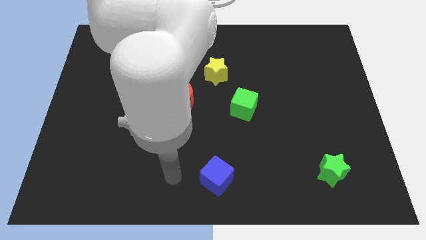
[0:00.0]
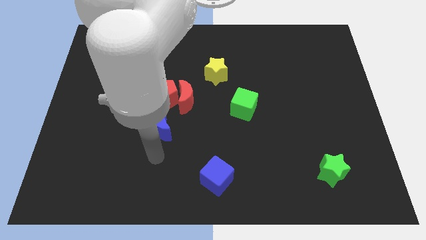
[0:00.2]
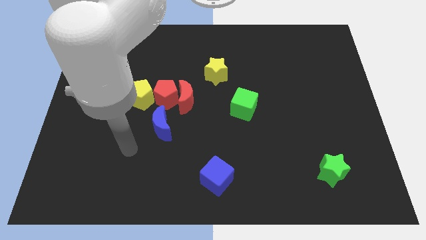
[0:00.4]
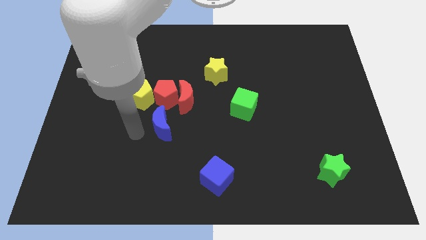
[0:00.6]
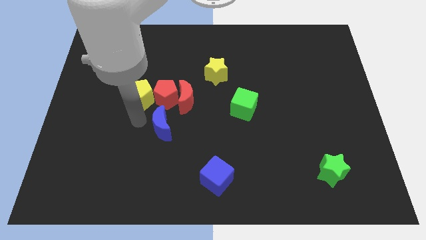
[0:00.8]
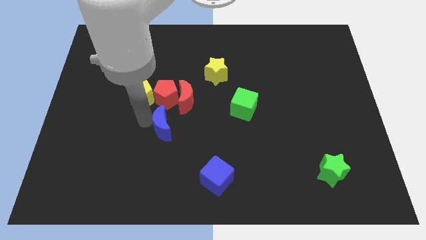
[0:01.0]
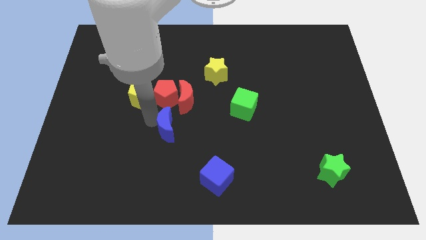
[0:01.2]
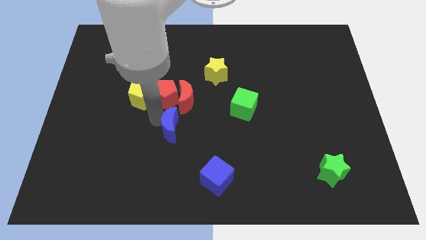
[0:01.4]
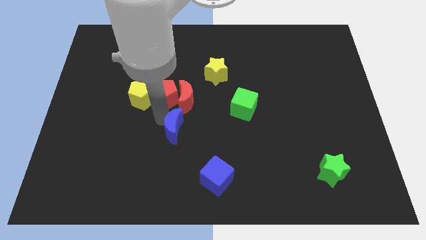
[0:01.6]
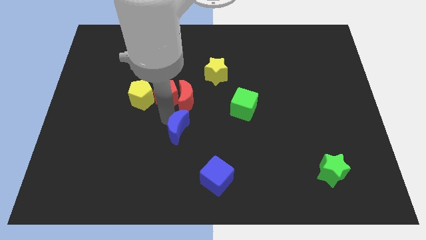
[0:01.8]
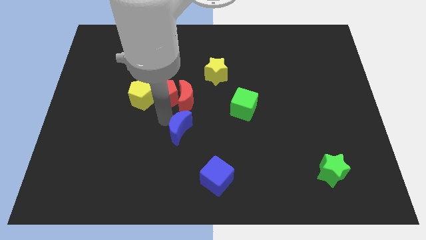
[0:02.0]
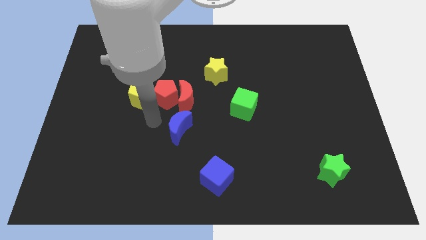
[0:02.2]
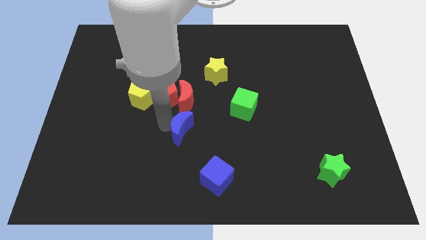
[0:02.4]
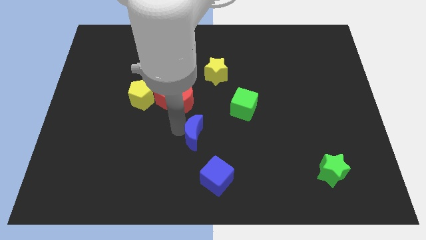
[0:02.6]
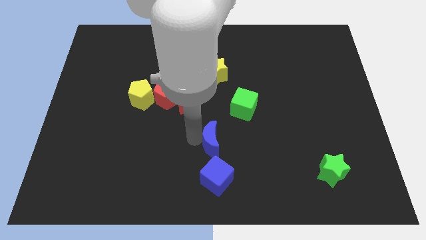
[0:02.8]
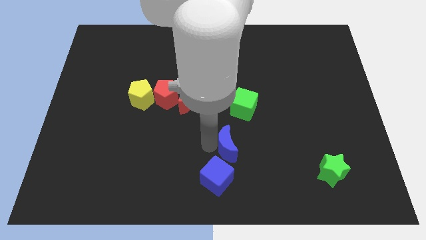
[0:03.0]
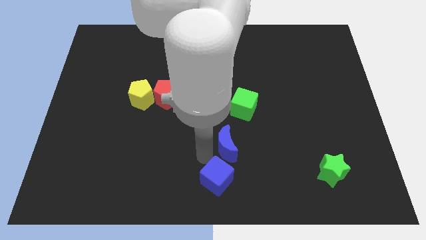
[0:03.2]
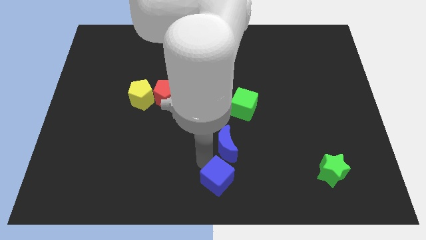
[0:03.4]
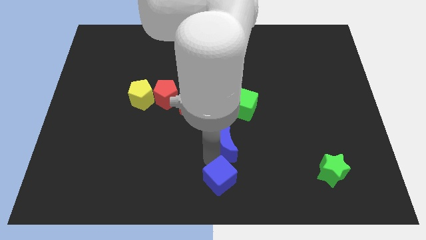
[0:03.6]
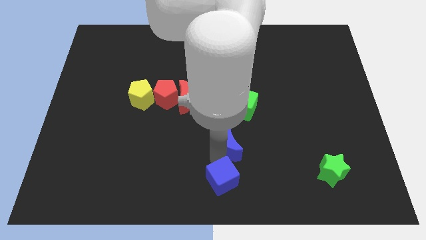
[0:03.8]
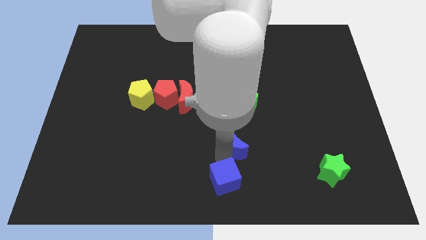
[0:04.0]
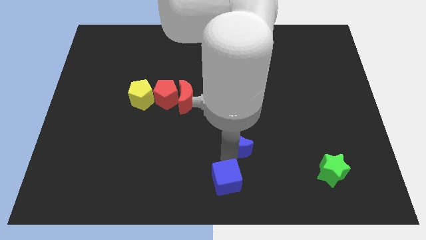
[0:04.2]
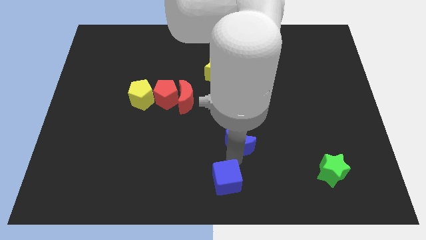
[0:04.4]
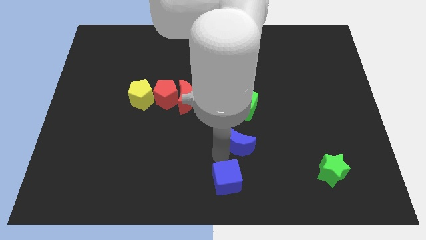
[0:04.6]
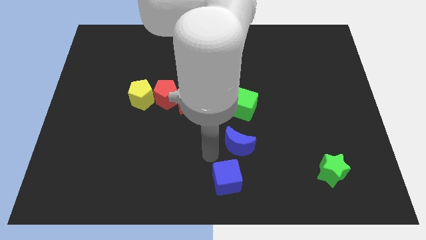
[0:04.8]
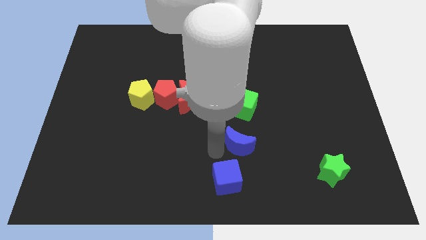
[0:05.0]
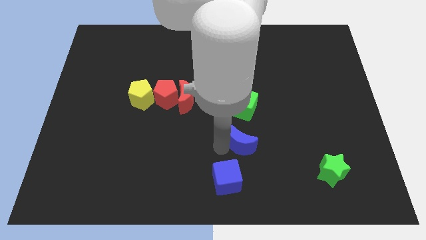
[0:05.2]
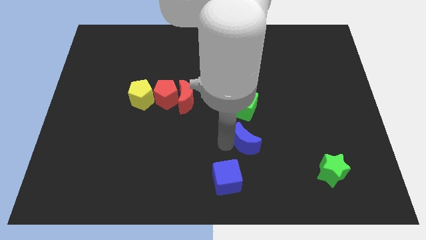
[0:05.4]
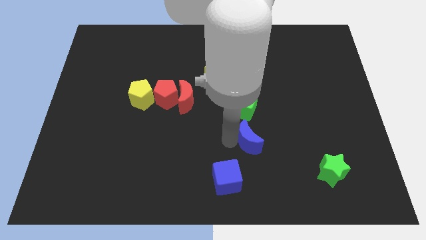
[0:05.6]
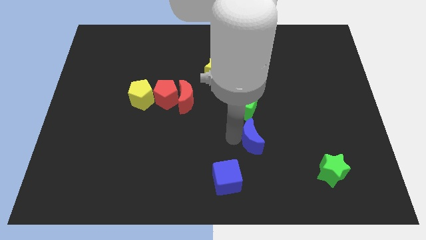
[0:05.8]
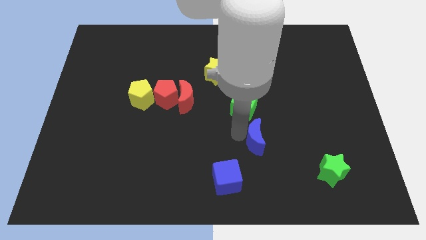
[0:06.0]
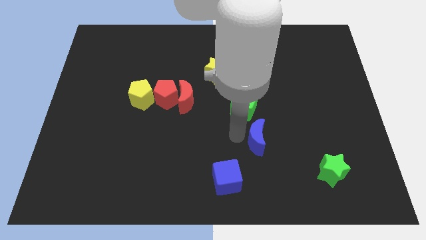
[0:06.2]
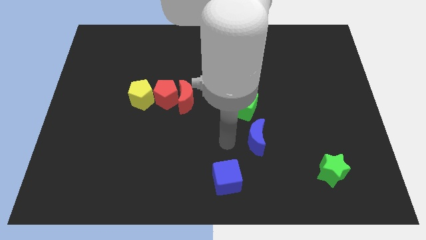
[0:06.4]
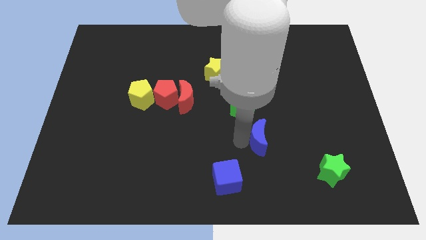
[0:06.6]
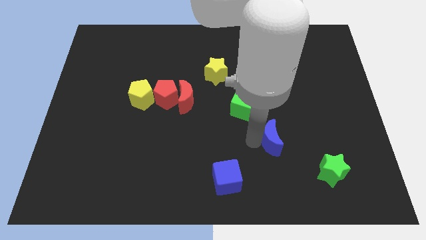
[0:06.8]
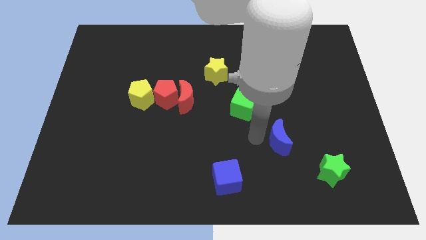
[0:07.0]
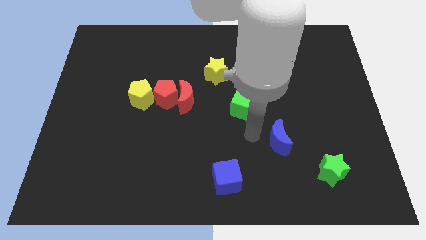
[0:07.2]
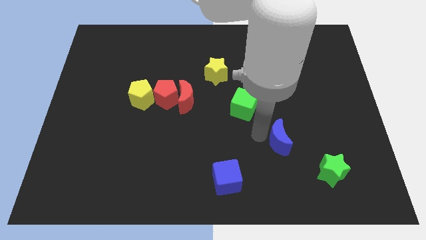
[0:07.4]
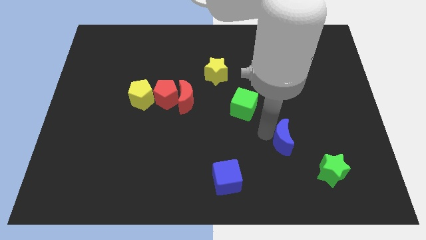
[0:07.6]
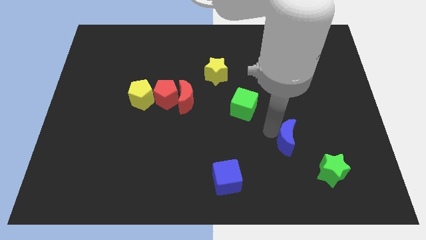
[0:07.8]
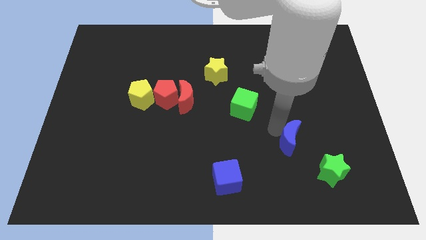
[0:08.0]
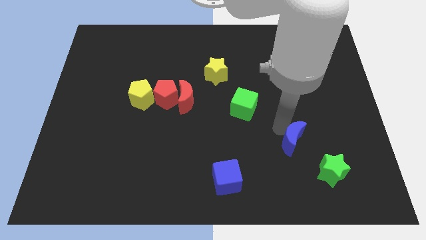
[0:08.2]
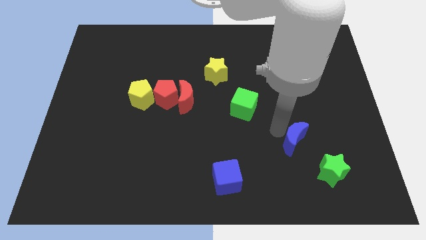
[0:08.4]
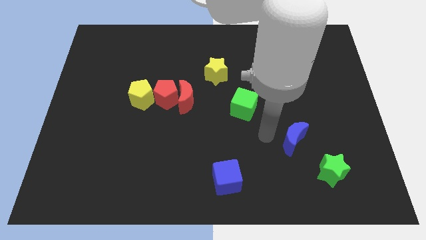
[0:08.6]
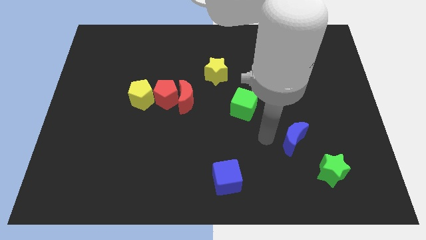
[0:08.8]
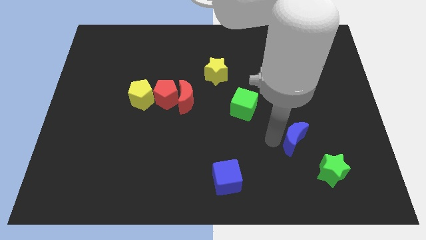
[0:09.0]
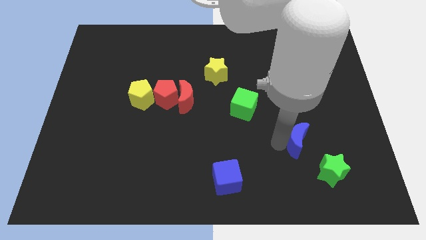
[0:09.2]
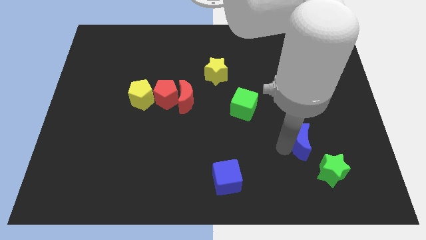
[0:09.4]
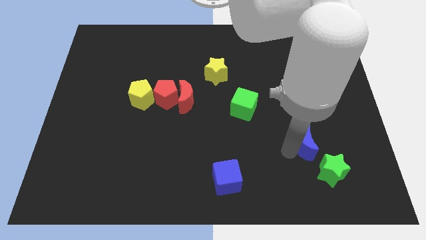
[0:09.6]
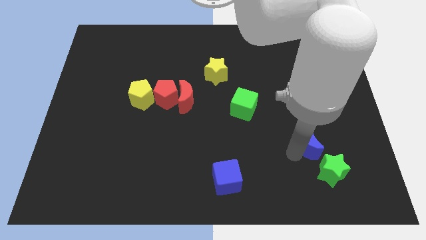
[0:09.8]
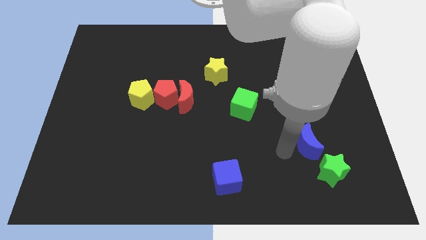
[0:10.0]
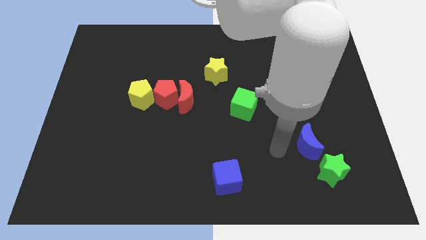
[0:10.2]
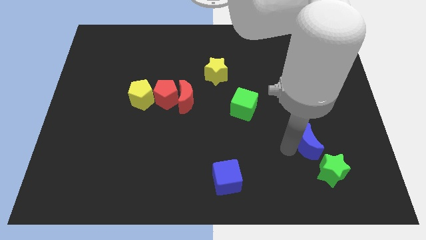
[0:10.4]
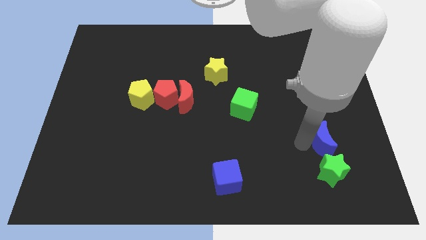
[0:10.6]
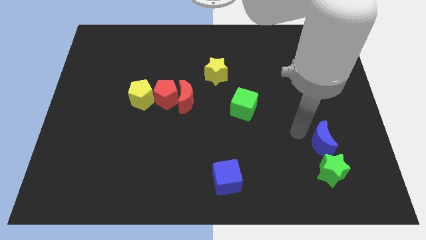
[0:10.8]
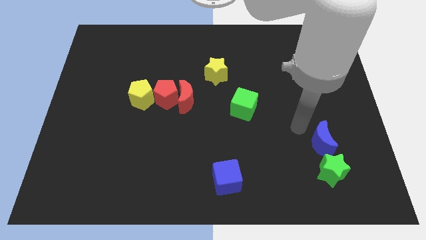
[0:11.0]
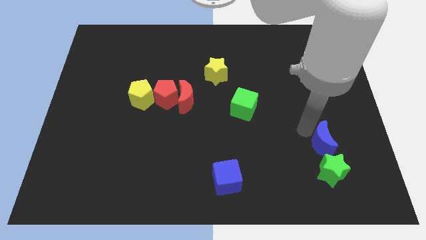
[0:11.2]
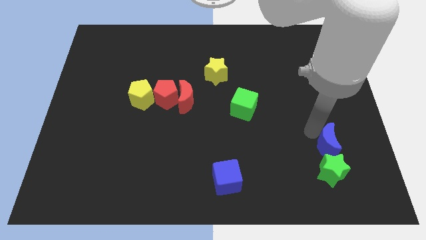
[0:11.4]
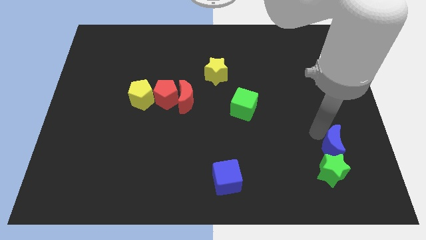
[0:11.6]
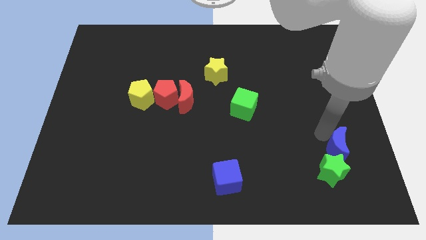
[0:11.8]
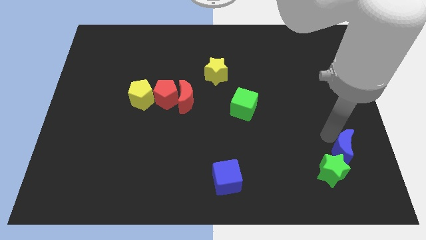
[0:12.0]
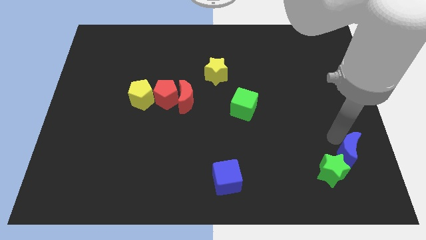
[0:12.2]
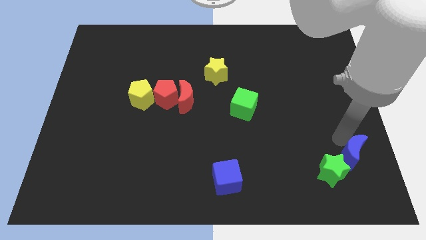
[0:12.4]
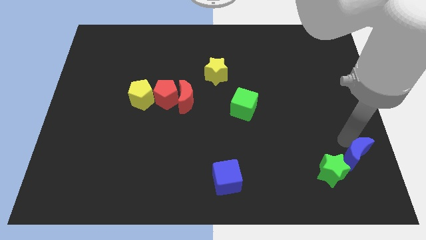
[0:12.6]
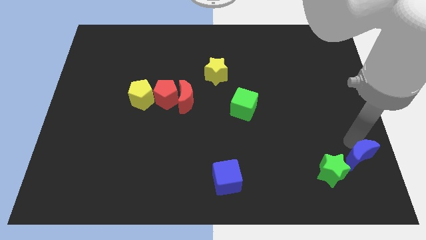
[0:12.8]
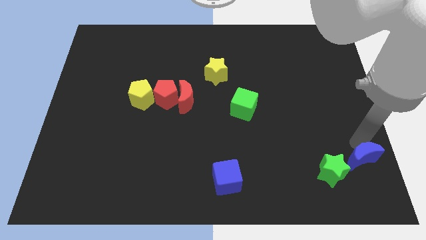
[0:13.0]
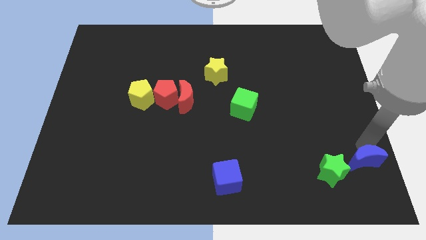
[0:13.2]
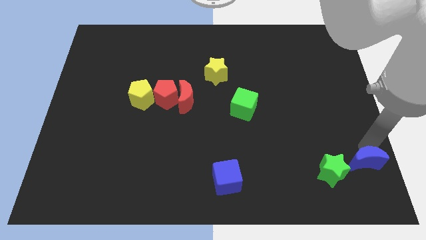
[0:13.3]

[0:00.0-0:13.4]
slide the blue moon to the bottom right corner
